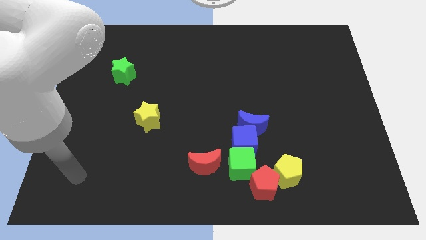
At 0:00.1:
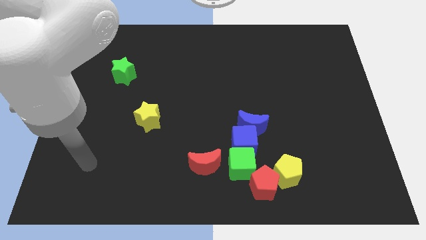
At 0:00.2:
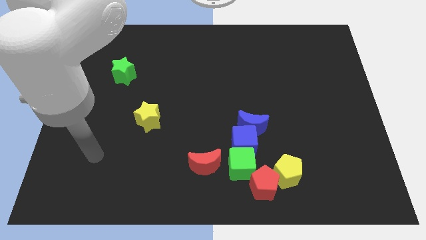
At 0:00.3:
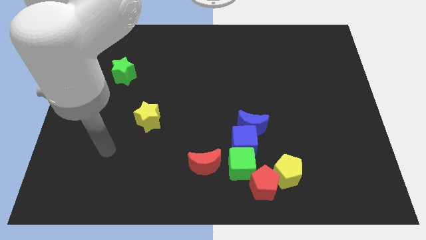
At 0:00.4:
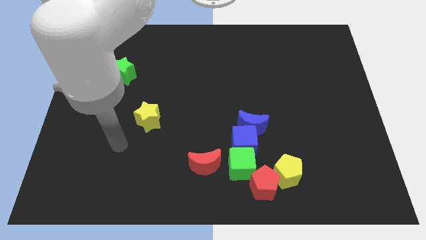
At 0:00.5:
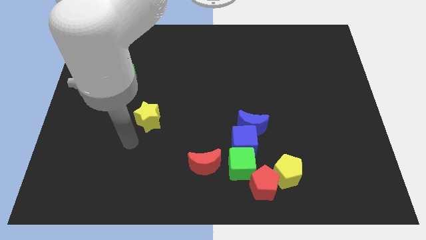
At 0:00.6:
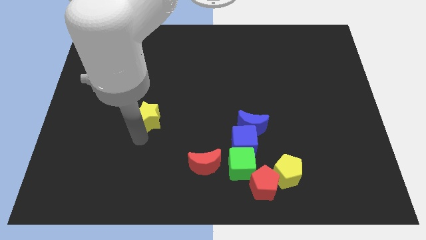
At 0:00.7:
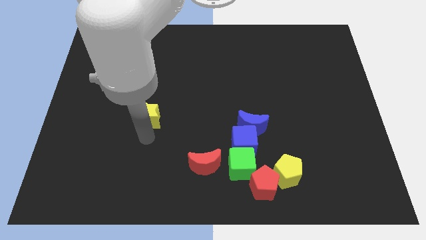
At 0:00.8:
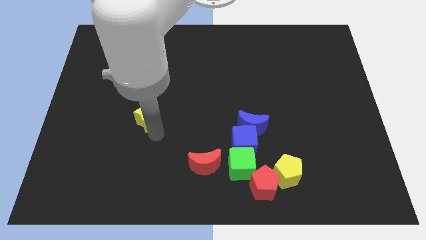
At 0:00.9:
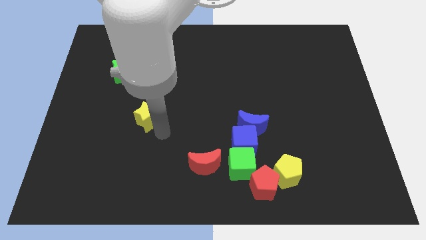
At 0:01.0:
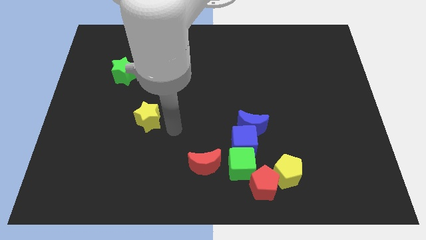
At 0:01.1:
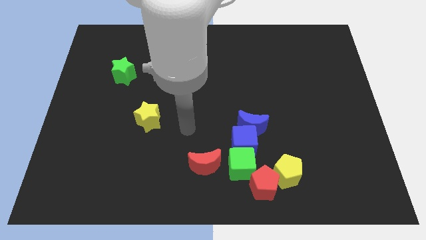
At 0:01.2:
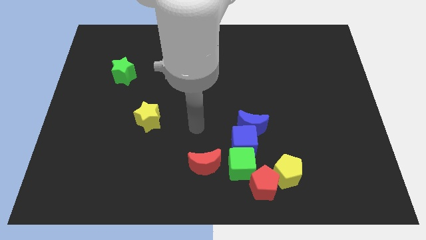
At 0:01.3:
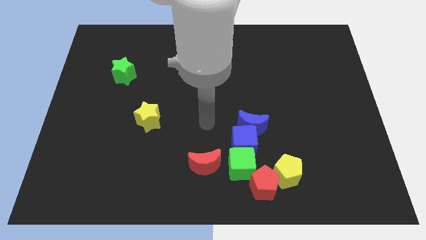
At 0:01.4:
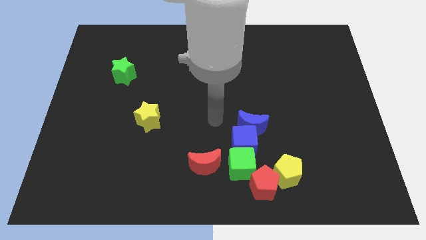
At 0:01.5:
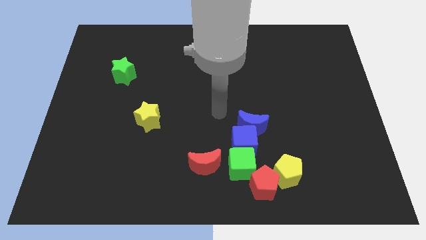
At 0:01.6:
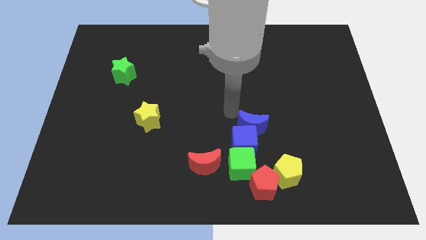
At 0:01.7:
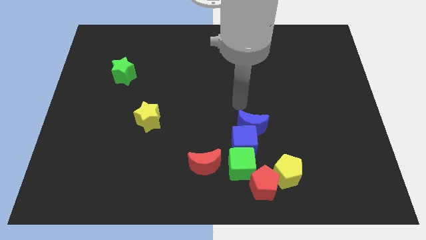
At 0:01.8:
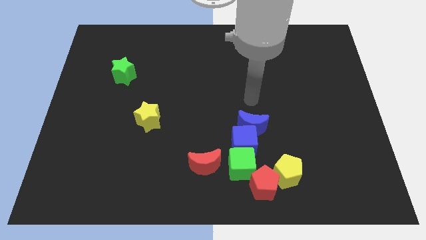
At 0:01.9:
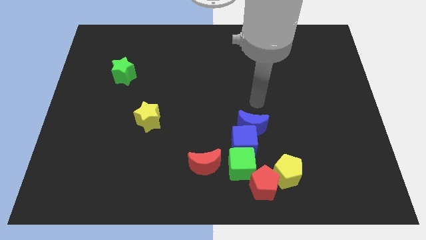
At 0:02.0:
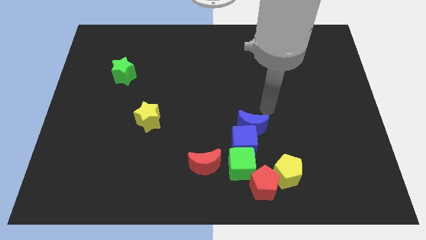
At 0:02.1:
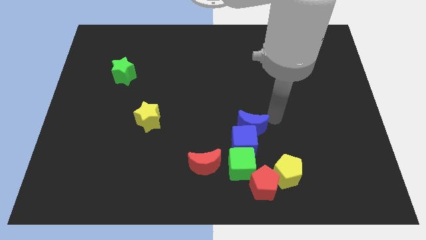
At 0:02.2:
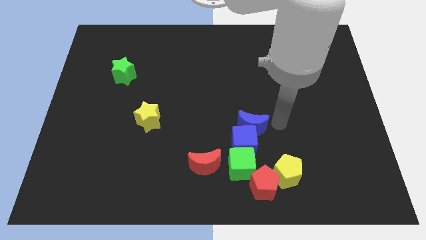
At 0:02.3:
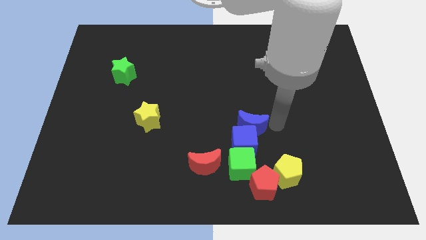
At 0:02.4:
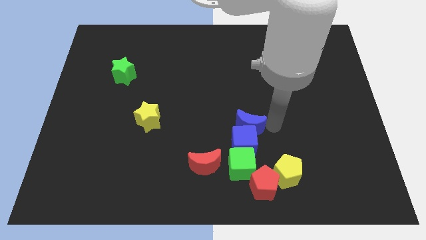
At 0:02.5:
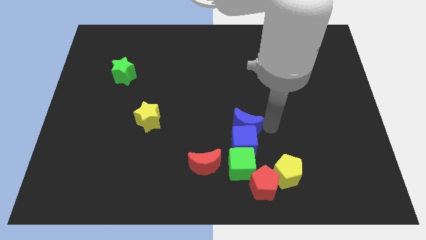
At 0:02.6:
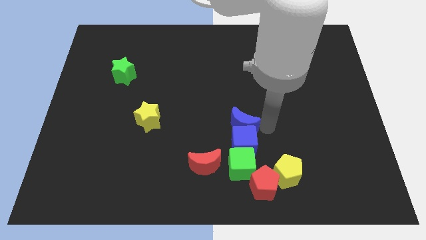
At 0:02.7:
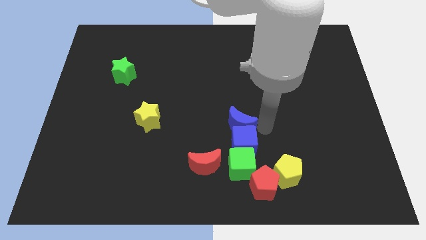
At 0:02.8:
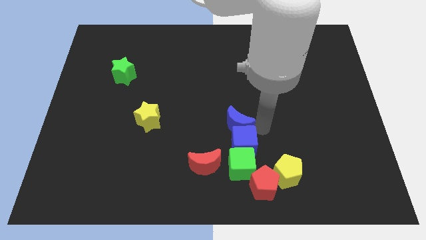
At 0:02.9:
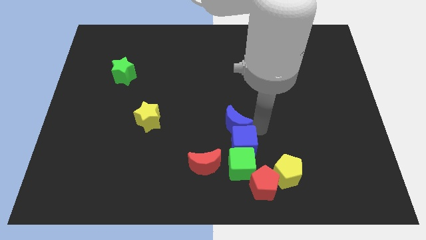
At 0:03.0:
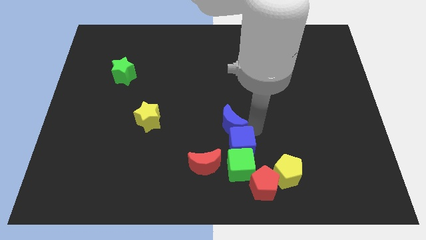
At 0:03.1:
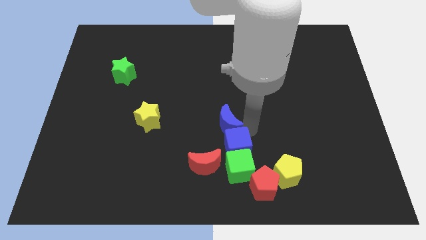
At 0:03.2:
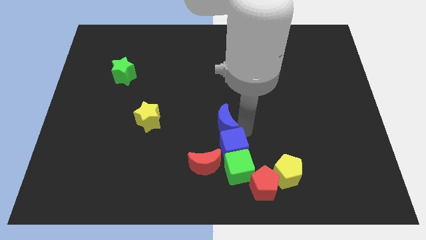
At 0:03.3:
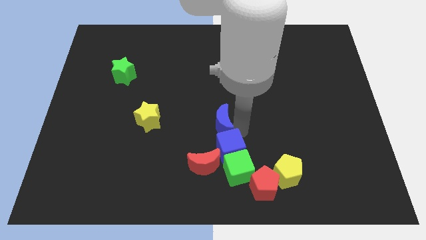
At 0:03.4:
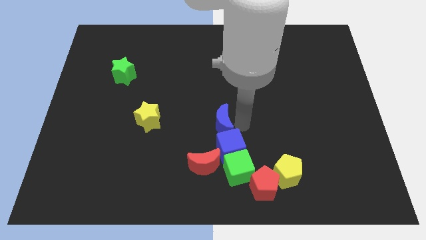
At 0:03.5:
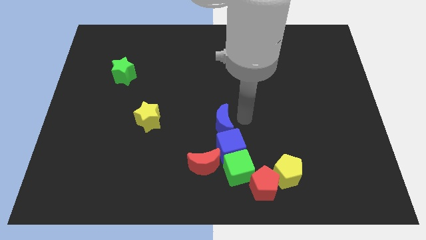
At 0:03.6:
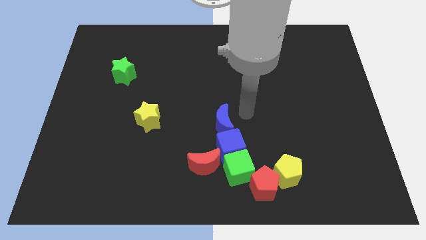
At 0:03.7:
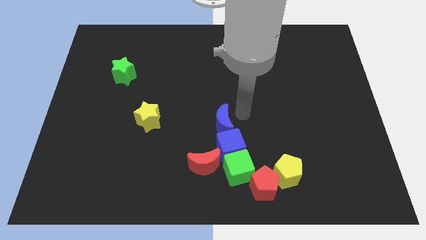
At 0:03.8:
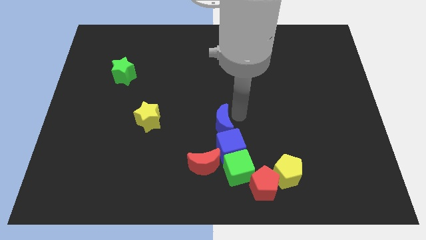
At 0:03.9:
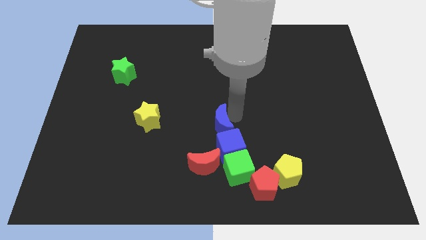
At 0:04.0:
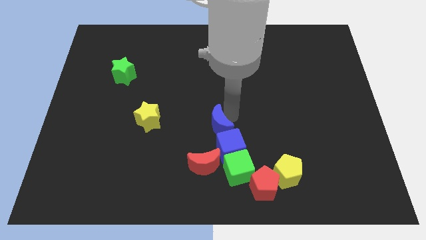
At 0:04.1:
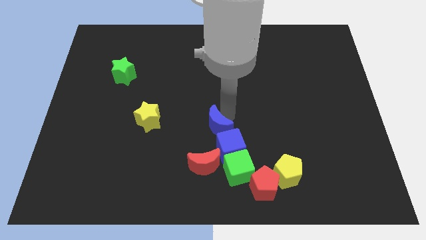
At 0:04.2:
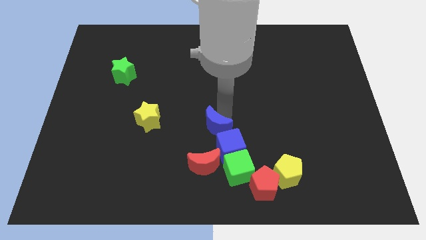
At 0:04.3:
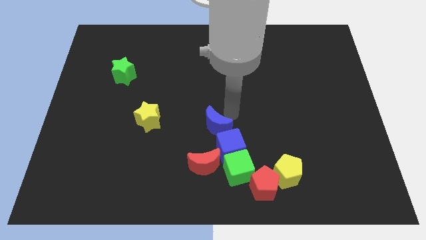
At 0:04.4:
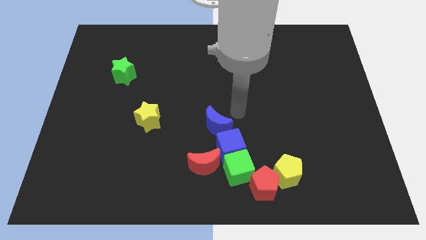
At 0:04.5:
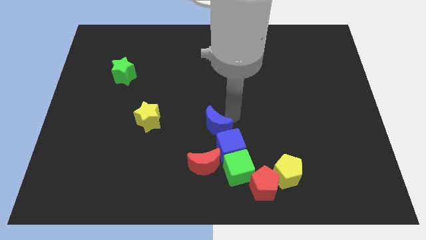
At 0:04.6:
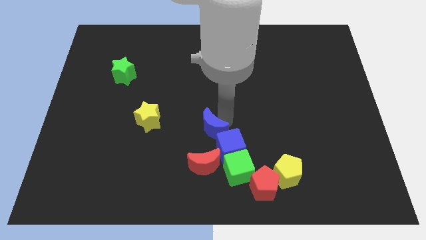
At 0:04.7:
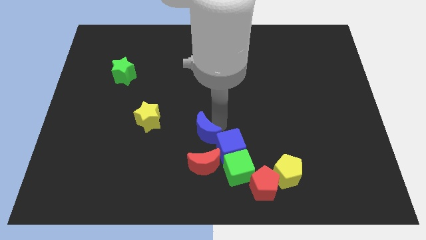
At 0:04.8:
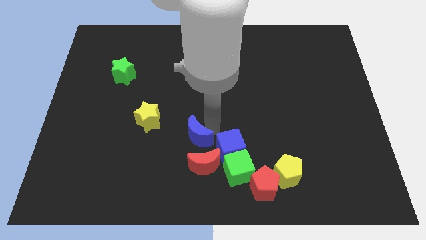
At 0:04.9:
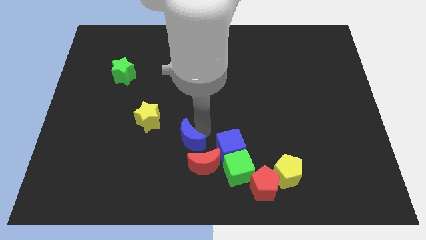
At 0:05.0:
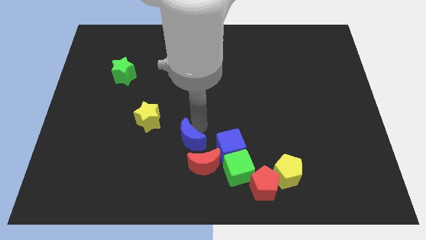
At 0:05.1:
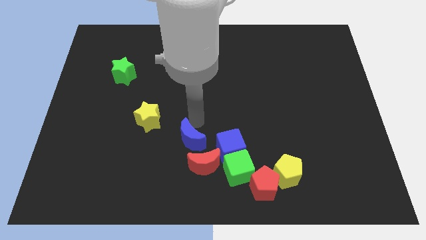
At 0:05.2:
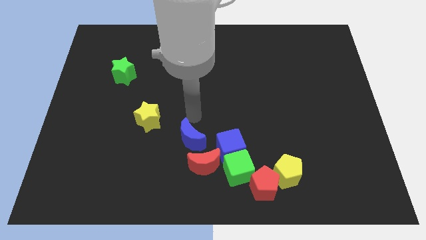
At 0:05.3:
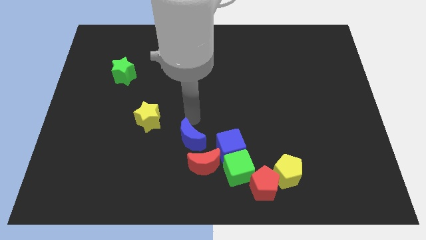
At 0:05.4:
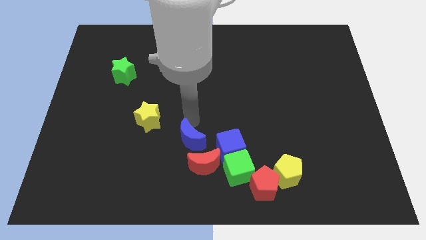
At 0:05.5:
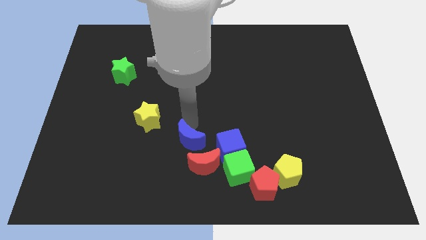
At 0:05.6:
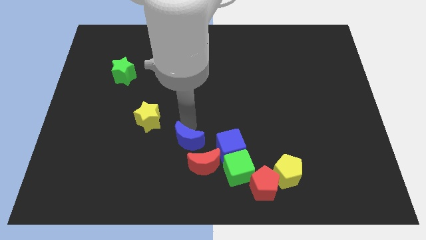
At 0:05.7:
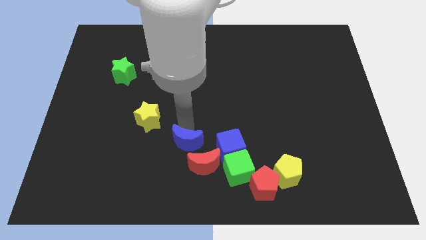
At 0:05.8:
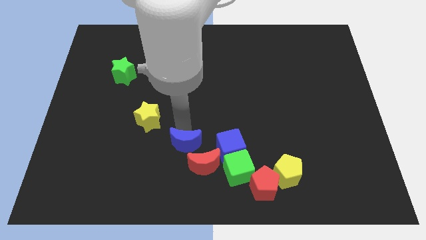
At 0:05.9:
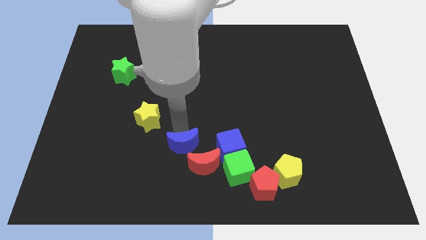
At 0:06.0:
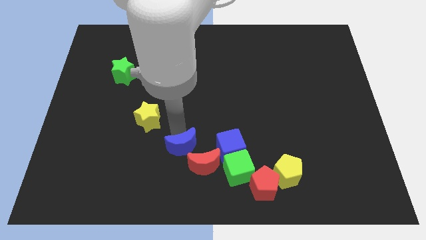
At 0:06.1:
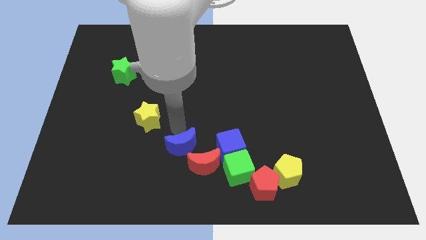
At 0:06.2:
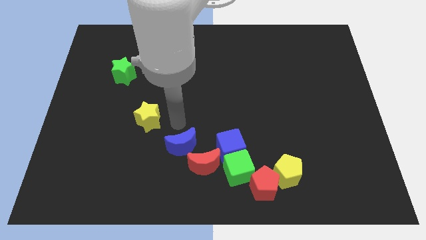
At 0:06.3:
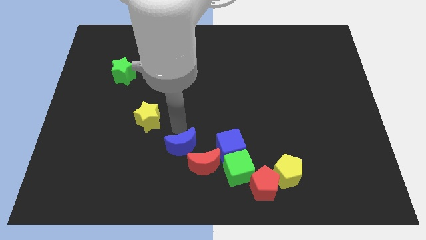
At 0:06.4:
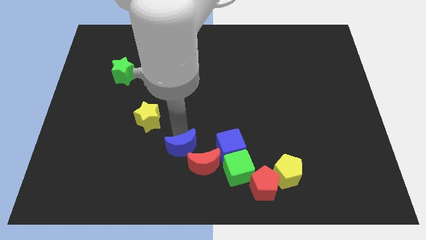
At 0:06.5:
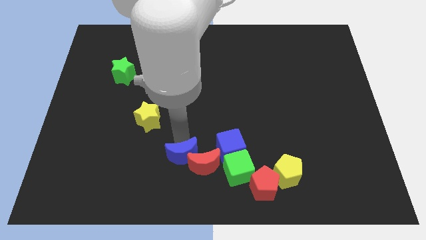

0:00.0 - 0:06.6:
move the blue moon to the left side of the green cube

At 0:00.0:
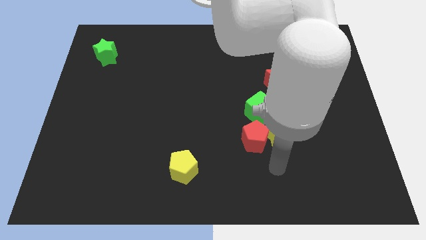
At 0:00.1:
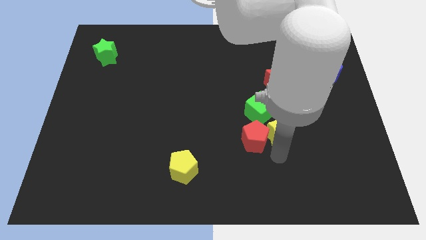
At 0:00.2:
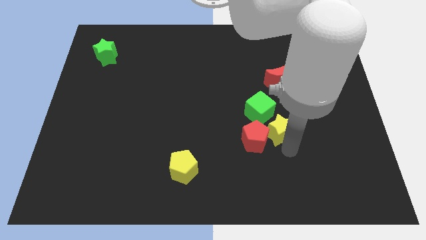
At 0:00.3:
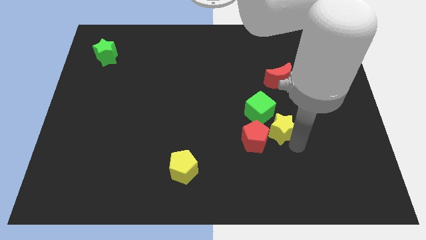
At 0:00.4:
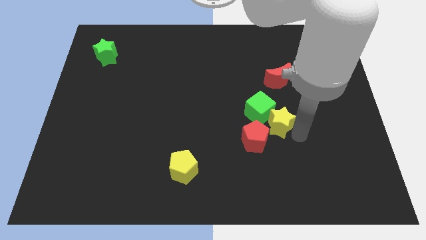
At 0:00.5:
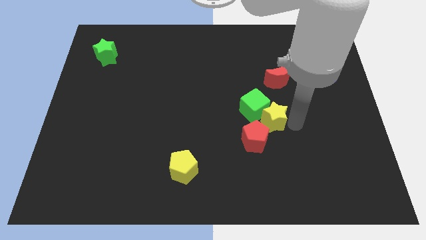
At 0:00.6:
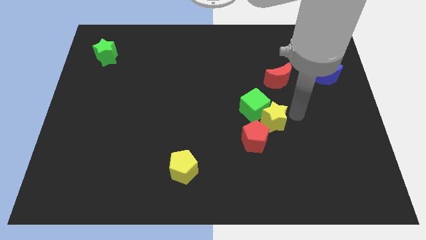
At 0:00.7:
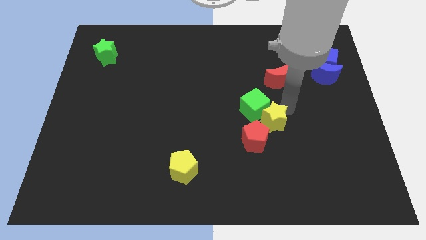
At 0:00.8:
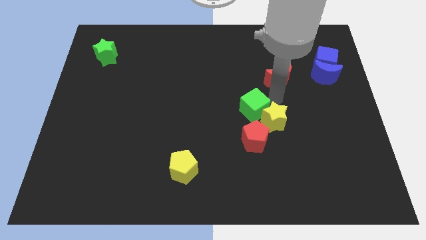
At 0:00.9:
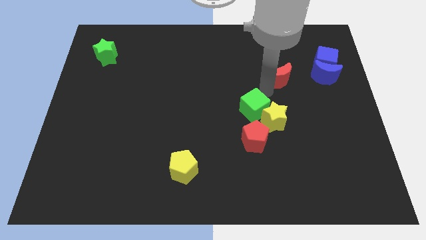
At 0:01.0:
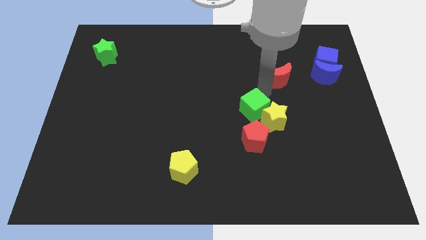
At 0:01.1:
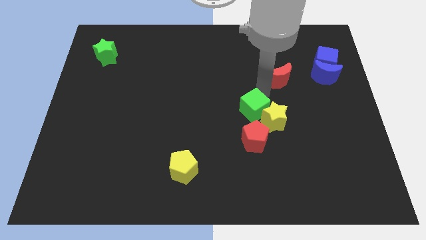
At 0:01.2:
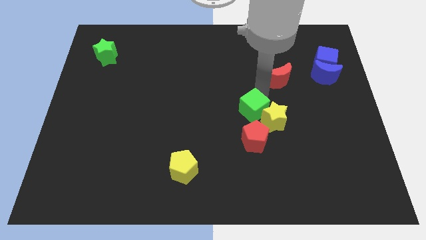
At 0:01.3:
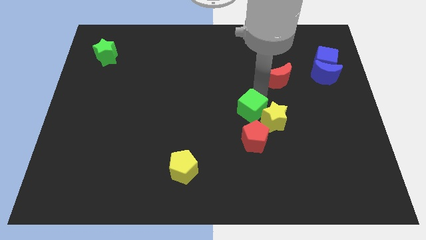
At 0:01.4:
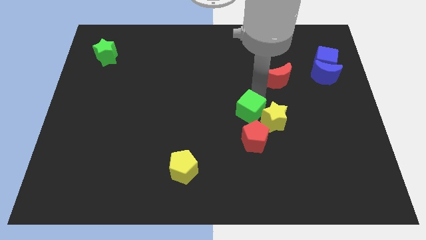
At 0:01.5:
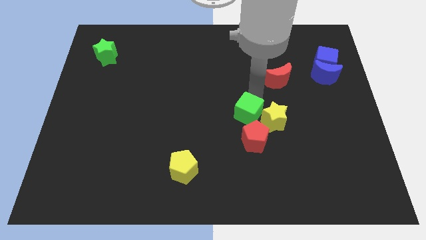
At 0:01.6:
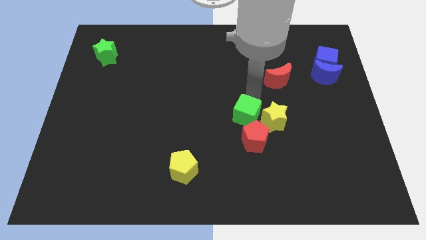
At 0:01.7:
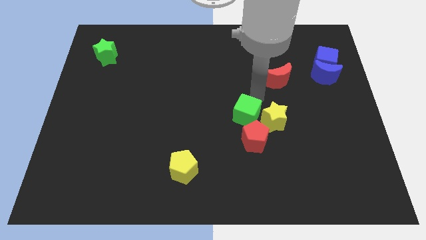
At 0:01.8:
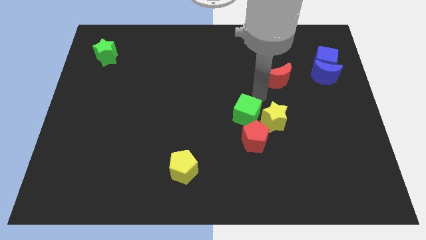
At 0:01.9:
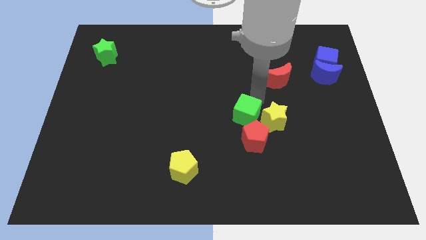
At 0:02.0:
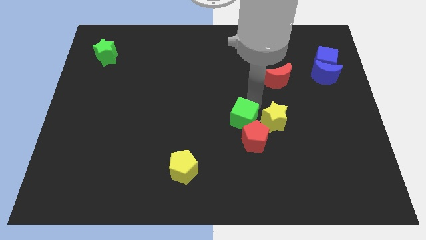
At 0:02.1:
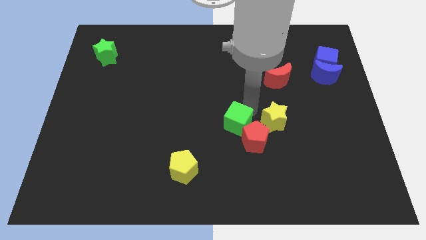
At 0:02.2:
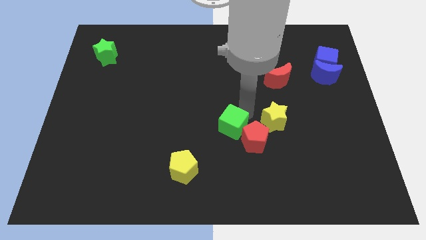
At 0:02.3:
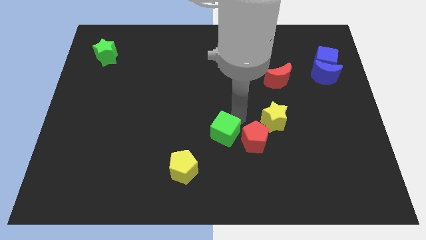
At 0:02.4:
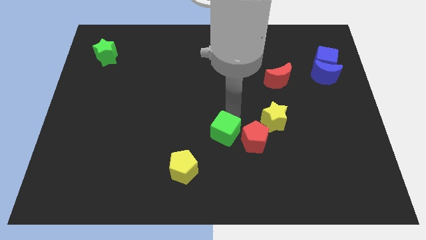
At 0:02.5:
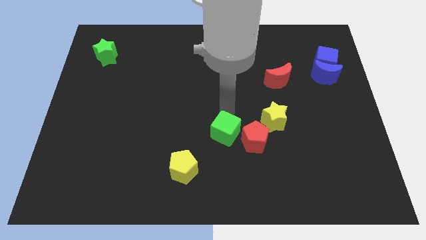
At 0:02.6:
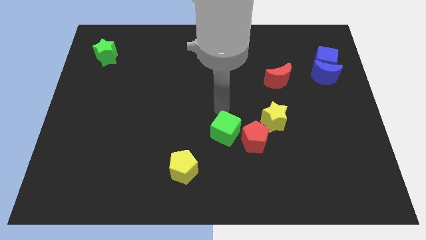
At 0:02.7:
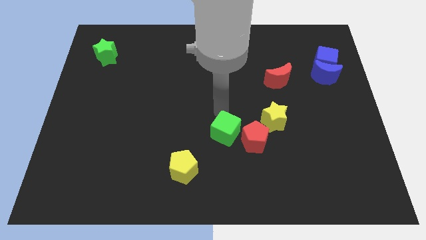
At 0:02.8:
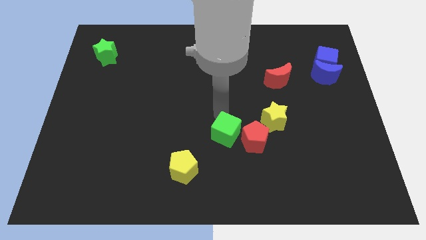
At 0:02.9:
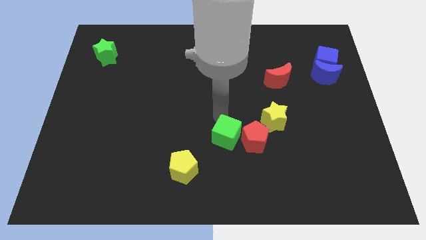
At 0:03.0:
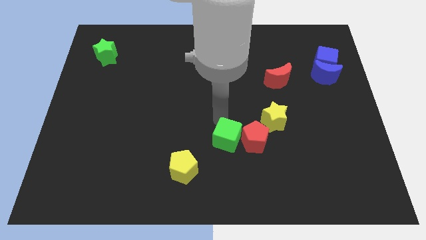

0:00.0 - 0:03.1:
move the green cube to the bottom left of the red pentagon
